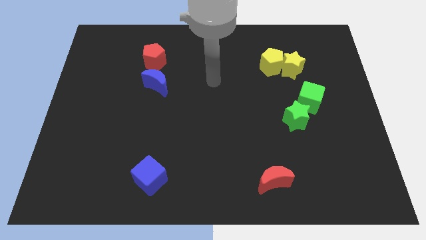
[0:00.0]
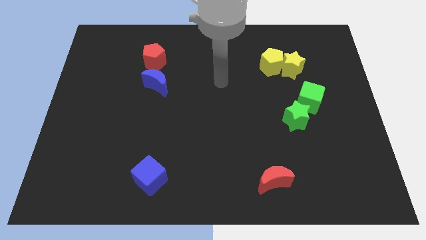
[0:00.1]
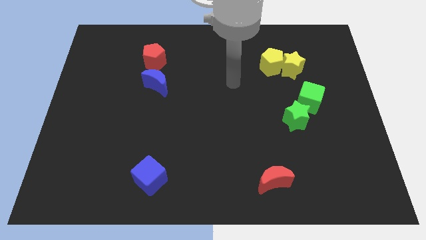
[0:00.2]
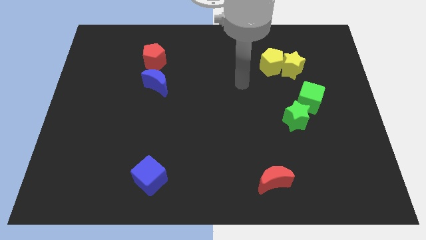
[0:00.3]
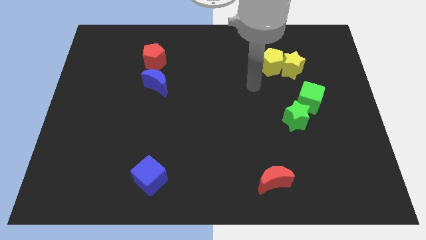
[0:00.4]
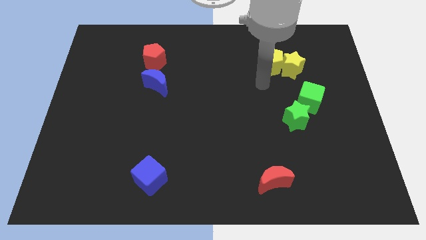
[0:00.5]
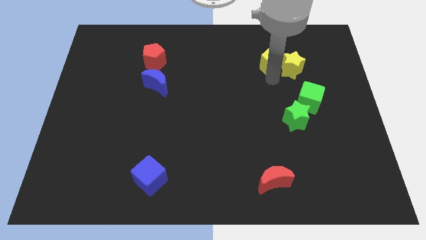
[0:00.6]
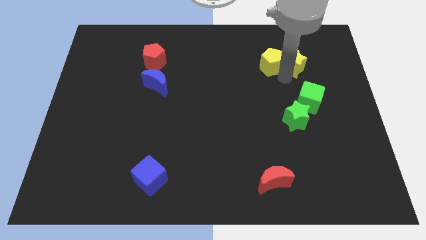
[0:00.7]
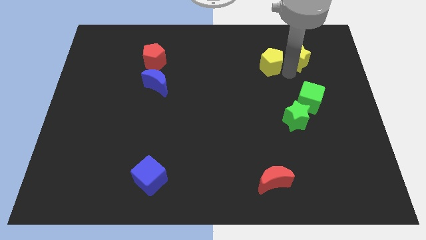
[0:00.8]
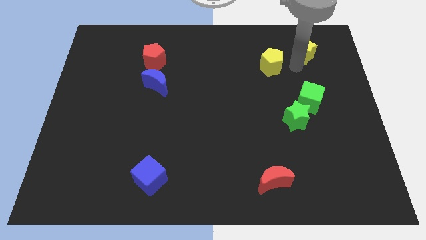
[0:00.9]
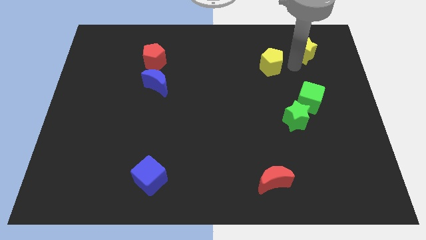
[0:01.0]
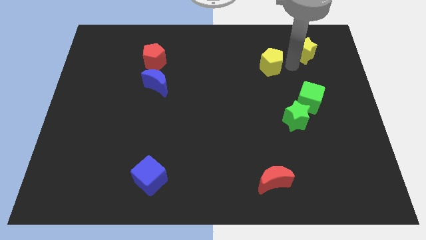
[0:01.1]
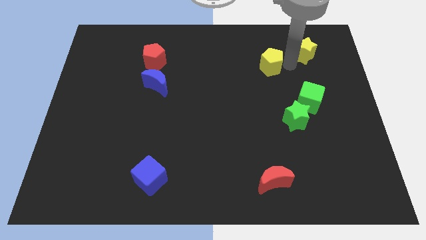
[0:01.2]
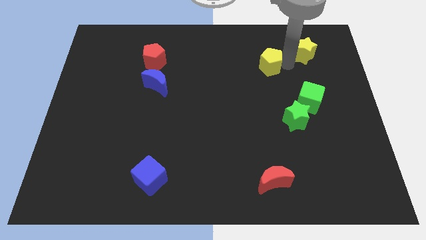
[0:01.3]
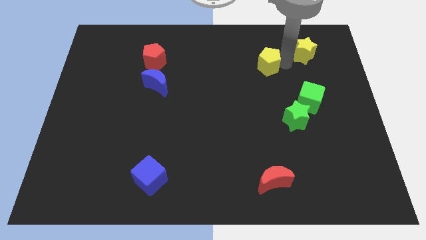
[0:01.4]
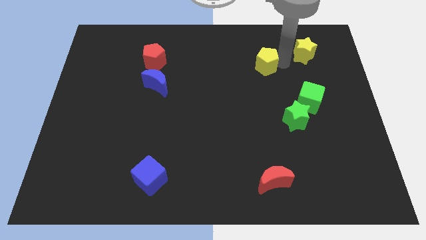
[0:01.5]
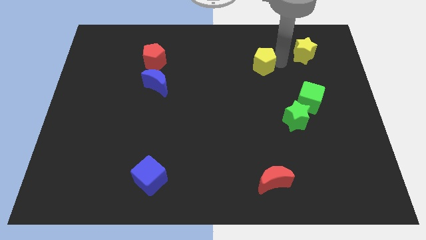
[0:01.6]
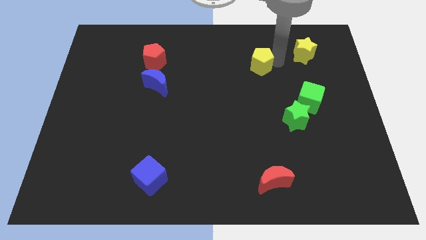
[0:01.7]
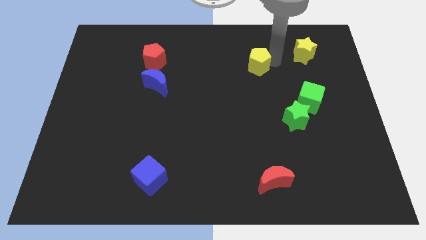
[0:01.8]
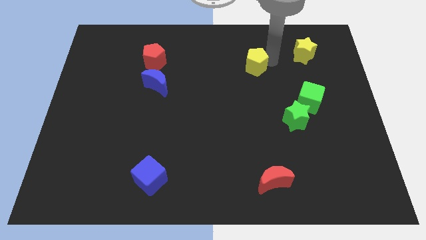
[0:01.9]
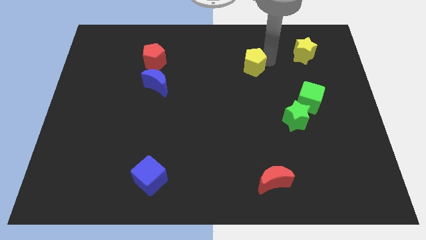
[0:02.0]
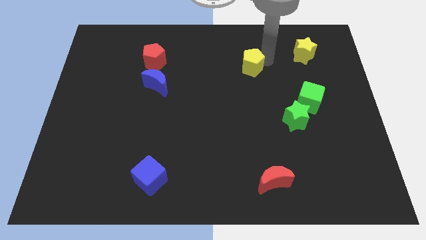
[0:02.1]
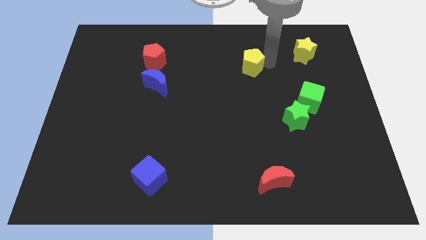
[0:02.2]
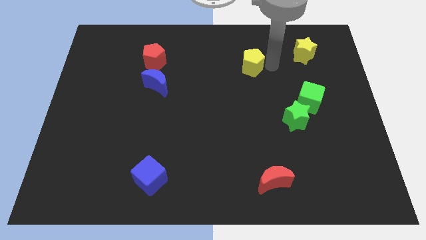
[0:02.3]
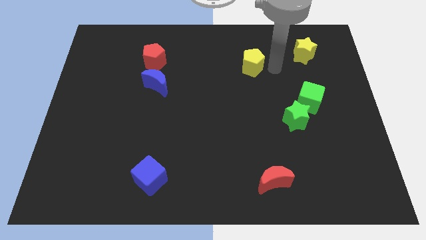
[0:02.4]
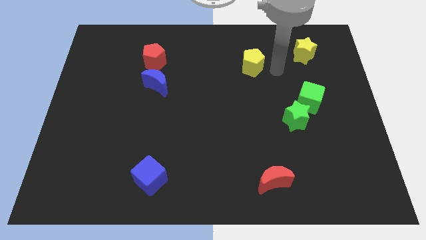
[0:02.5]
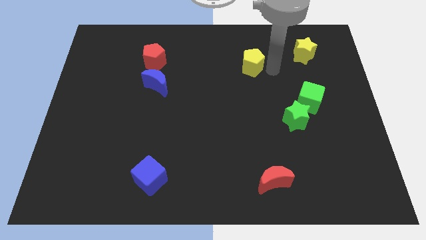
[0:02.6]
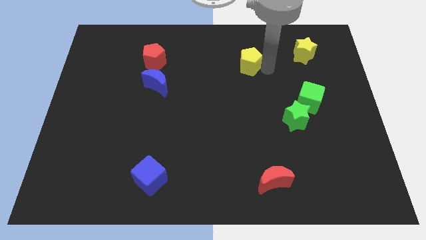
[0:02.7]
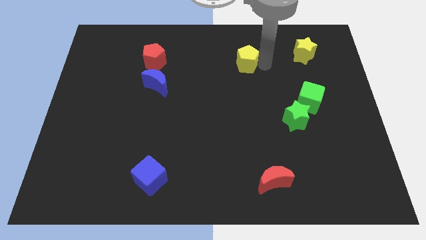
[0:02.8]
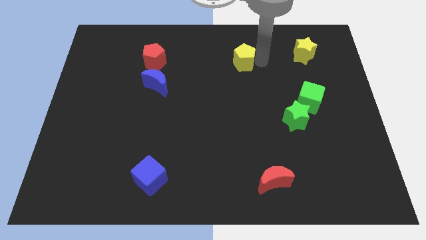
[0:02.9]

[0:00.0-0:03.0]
slightly move the yellow pentagon left

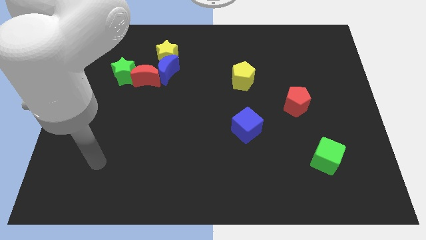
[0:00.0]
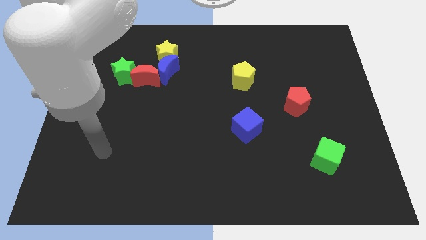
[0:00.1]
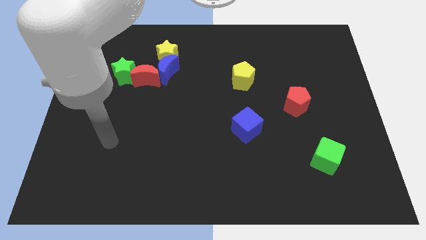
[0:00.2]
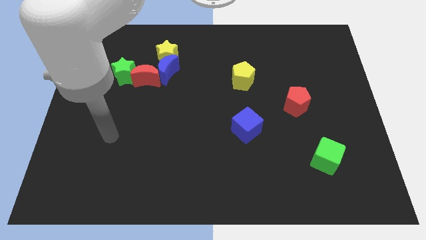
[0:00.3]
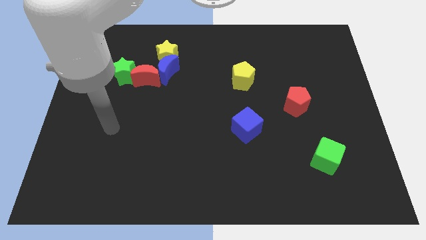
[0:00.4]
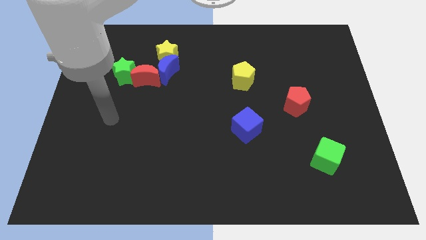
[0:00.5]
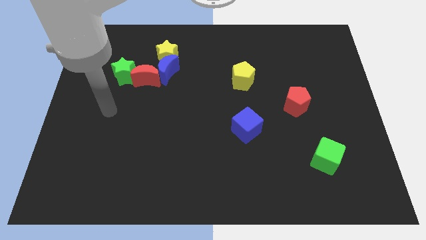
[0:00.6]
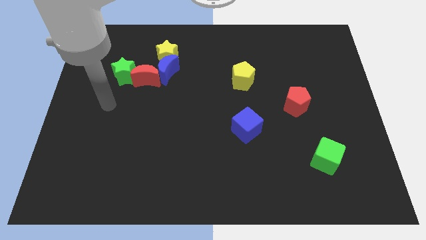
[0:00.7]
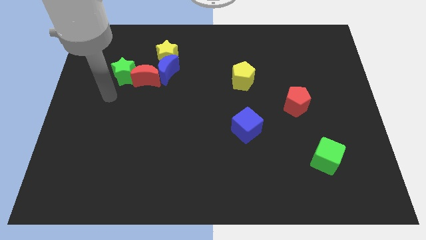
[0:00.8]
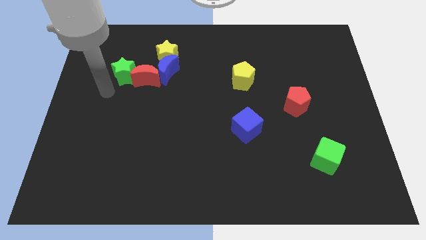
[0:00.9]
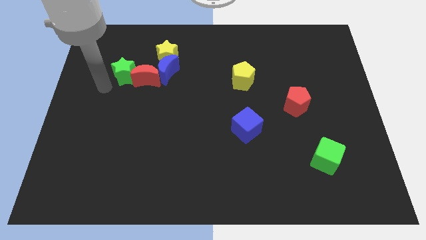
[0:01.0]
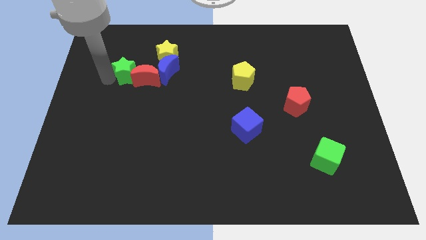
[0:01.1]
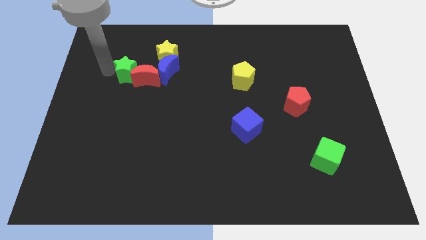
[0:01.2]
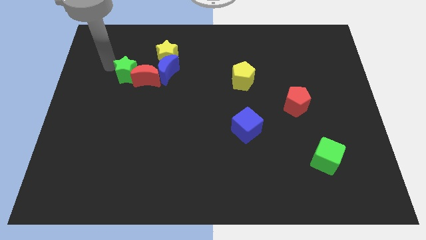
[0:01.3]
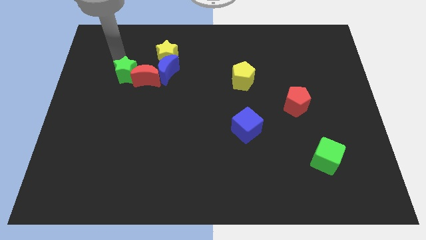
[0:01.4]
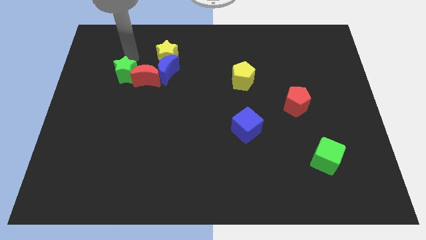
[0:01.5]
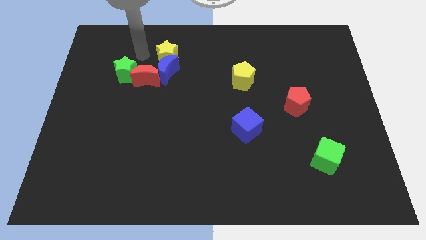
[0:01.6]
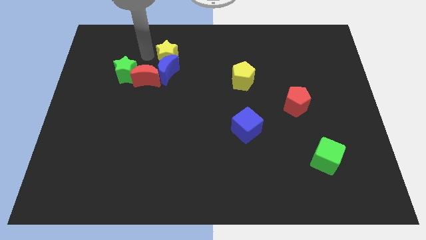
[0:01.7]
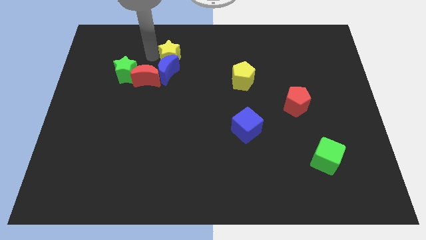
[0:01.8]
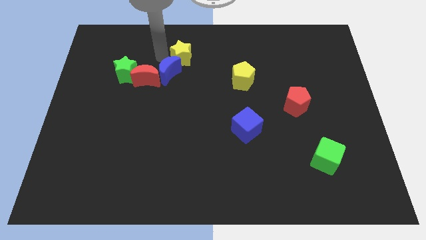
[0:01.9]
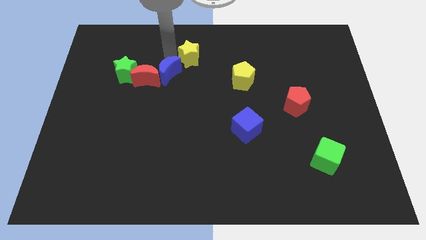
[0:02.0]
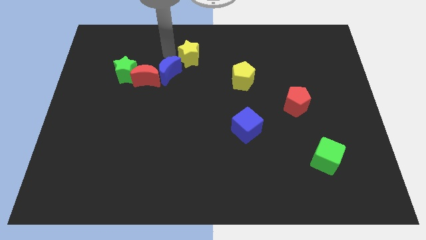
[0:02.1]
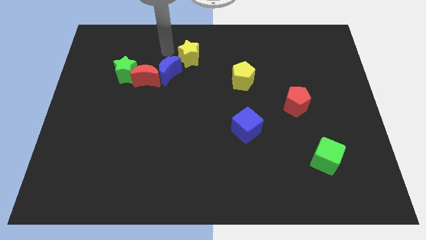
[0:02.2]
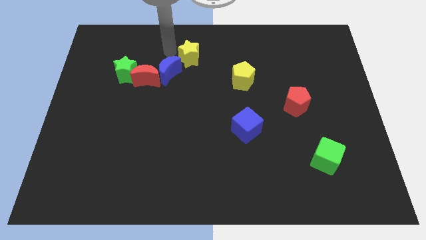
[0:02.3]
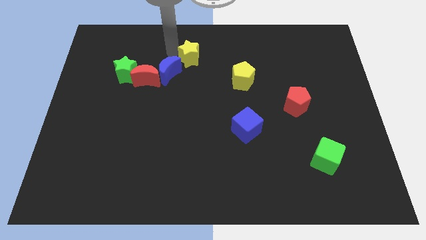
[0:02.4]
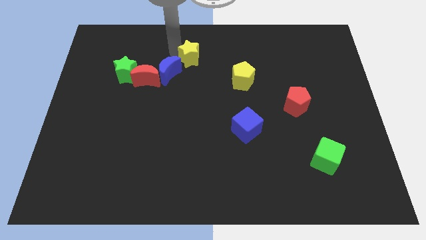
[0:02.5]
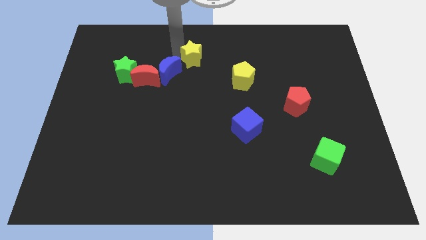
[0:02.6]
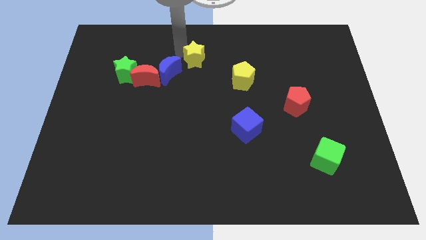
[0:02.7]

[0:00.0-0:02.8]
move the yellow star somewhat right

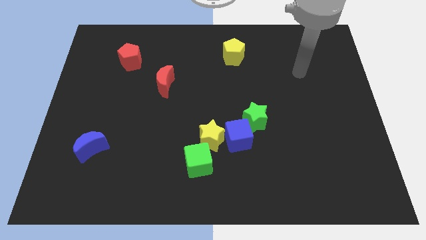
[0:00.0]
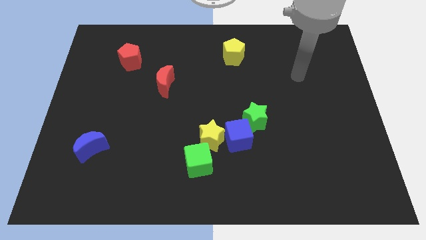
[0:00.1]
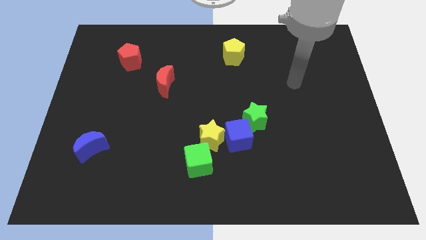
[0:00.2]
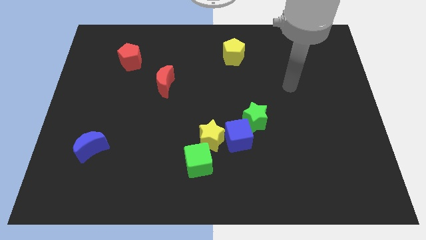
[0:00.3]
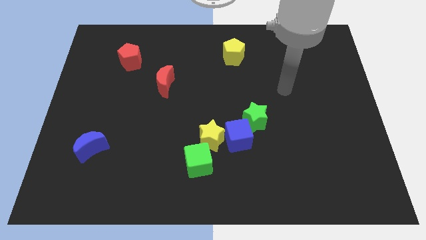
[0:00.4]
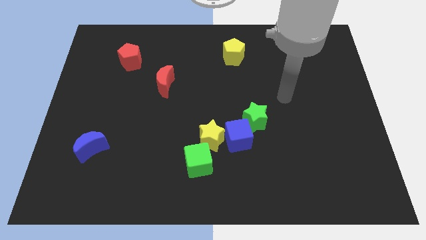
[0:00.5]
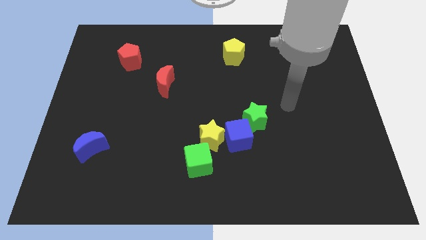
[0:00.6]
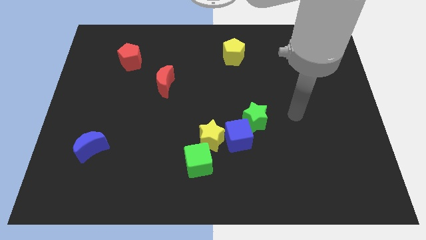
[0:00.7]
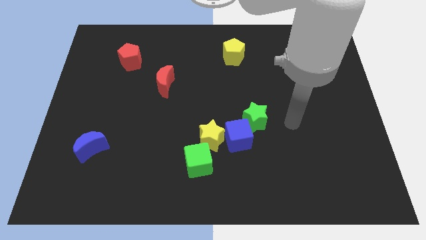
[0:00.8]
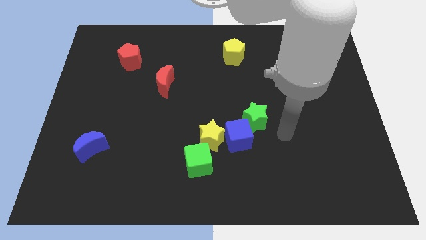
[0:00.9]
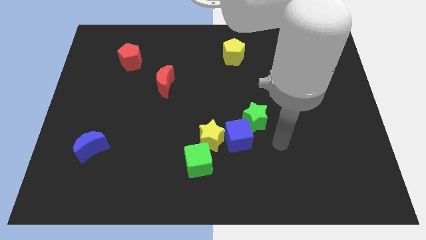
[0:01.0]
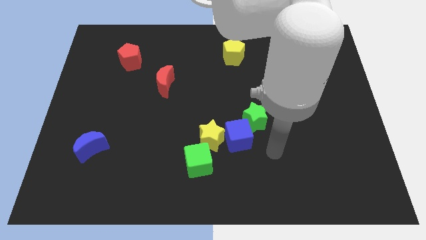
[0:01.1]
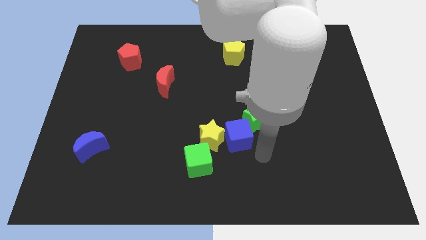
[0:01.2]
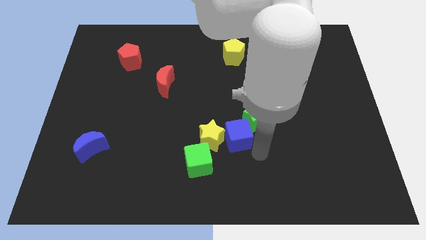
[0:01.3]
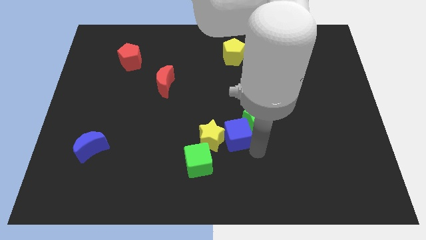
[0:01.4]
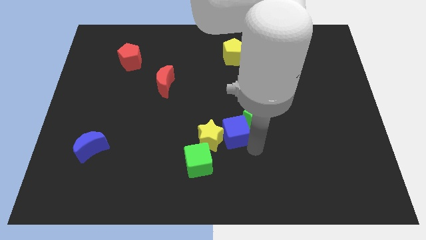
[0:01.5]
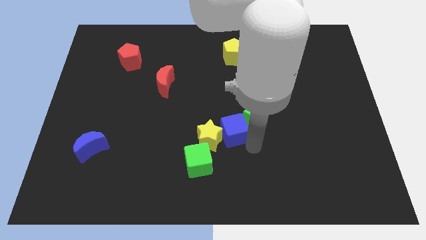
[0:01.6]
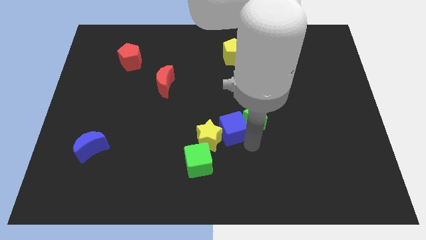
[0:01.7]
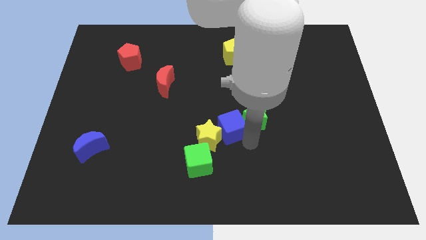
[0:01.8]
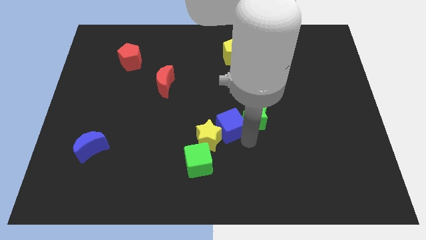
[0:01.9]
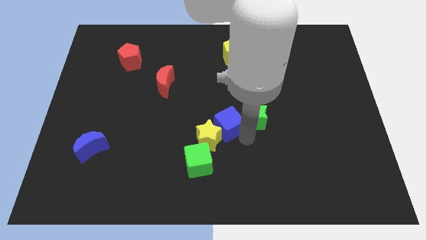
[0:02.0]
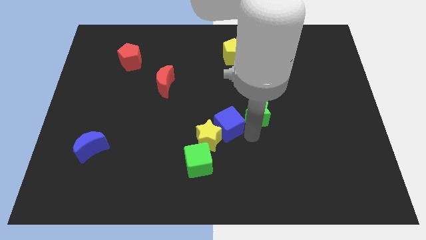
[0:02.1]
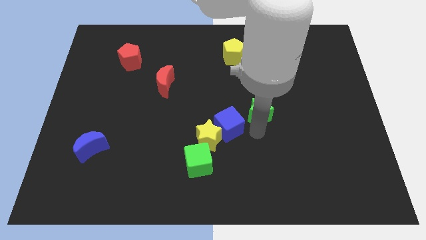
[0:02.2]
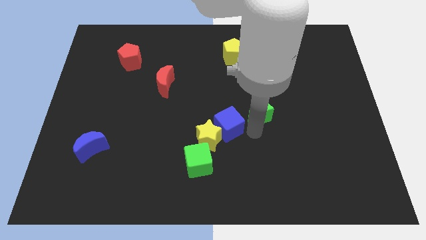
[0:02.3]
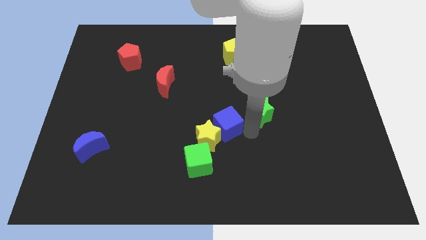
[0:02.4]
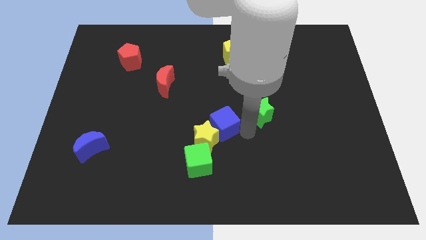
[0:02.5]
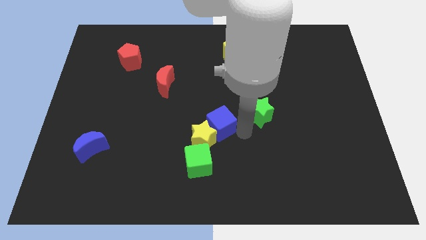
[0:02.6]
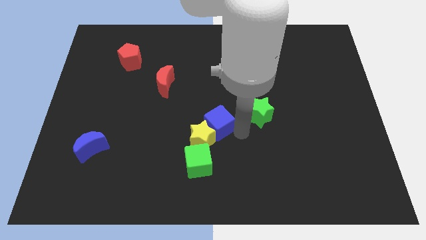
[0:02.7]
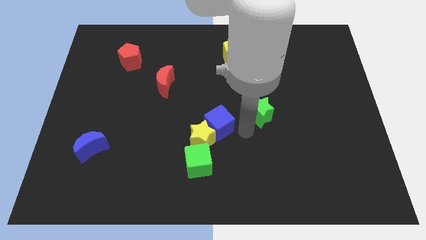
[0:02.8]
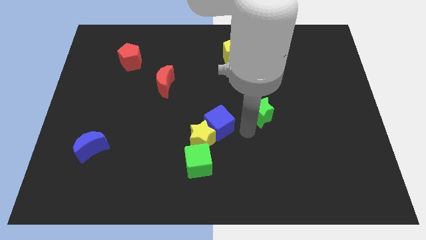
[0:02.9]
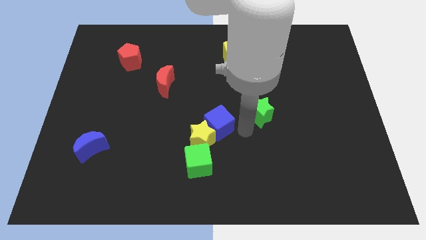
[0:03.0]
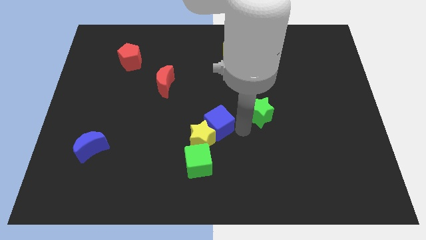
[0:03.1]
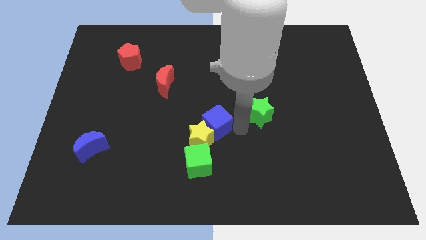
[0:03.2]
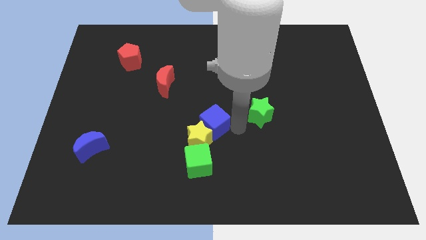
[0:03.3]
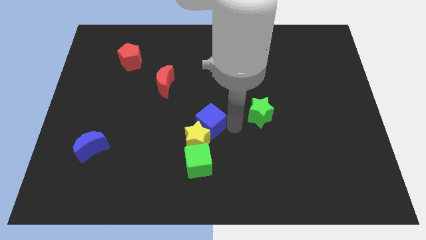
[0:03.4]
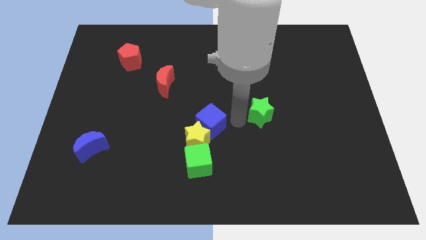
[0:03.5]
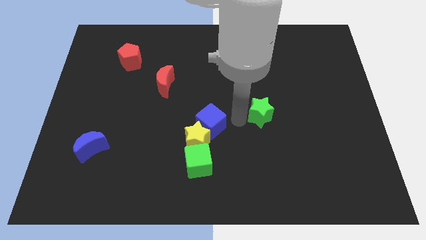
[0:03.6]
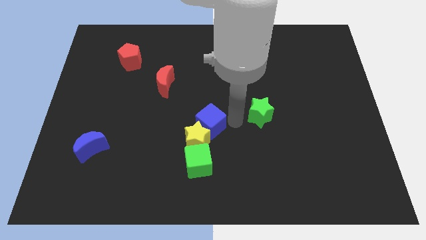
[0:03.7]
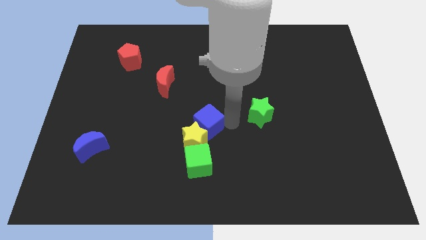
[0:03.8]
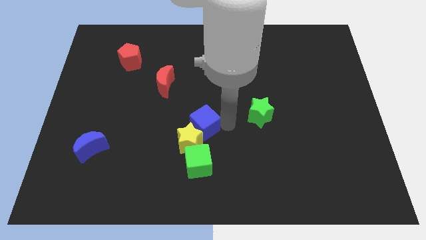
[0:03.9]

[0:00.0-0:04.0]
slightly push the blue cube to the left
